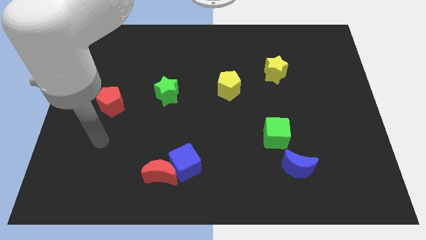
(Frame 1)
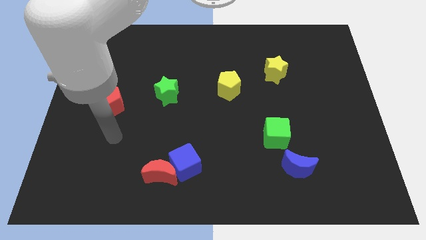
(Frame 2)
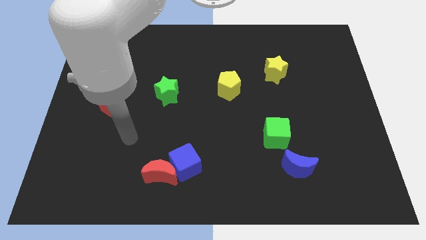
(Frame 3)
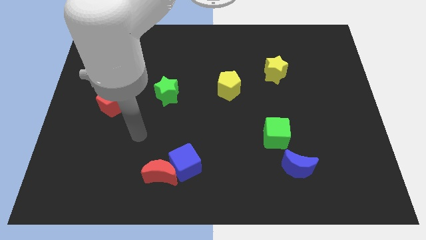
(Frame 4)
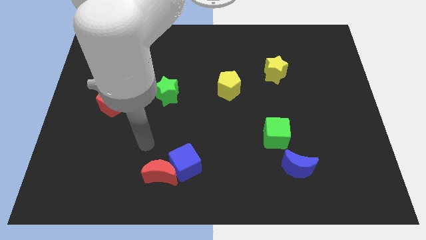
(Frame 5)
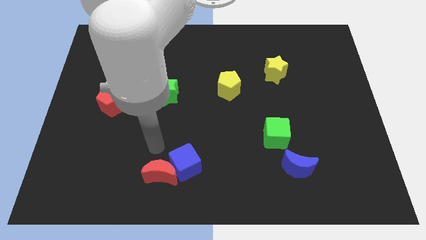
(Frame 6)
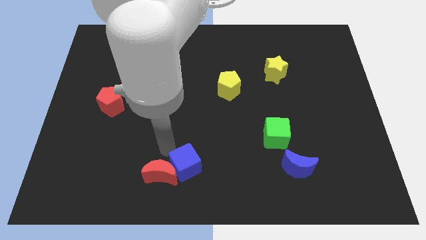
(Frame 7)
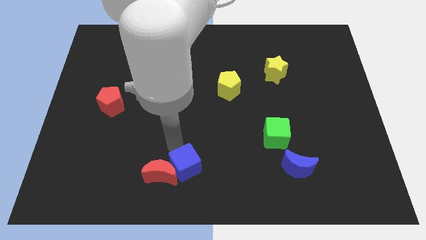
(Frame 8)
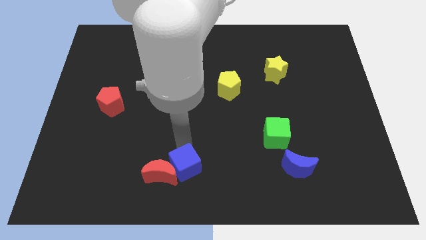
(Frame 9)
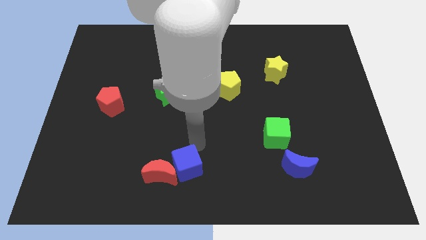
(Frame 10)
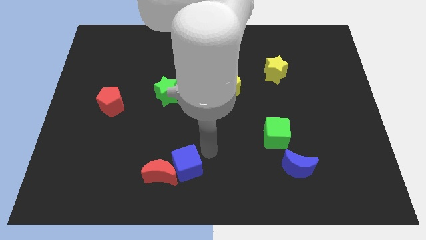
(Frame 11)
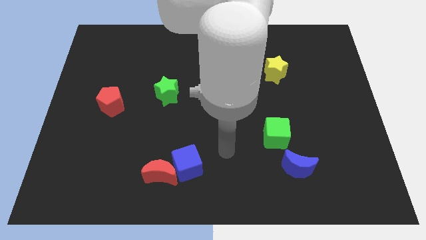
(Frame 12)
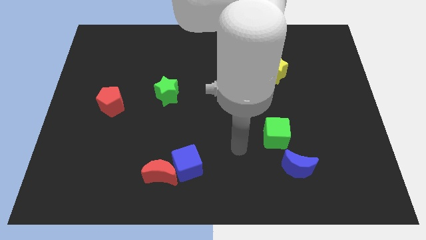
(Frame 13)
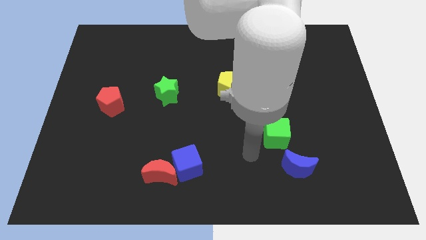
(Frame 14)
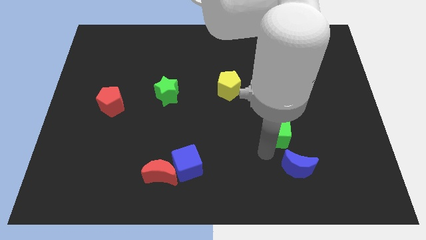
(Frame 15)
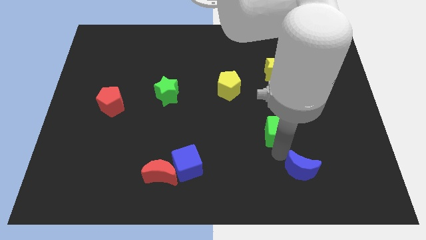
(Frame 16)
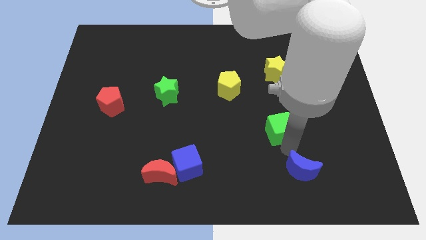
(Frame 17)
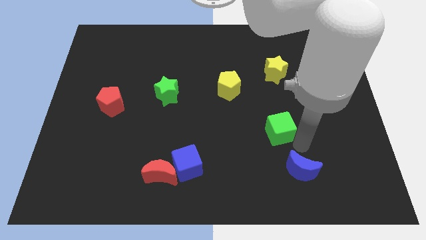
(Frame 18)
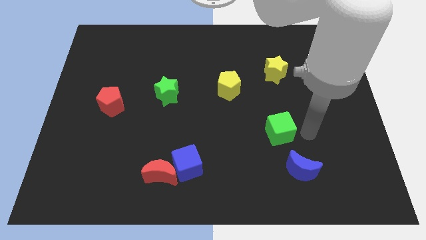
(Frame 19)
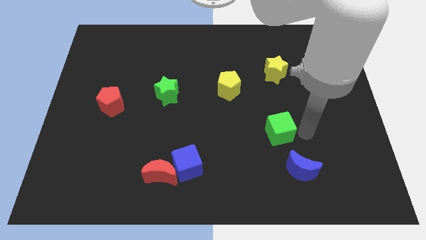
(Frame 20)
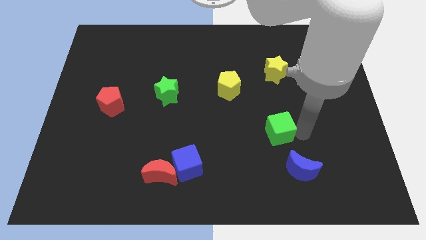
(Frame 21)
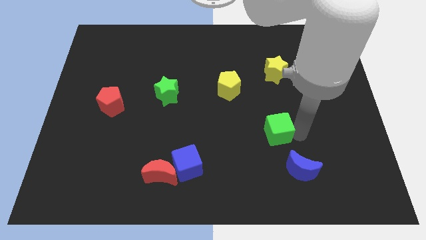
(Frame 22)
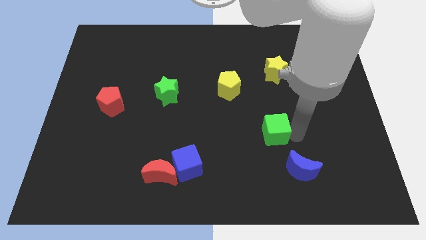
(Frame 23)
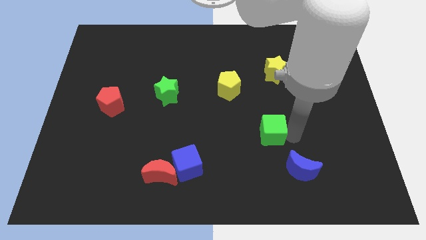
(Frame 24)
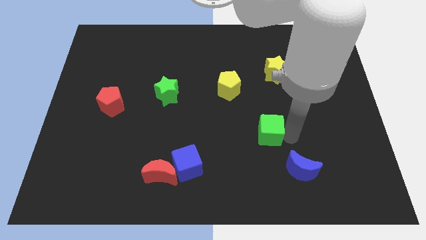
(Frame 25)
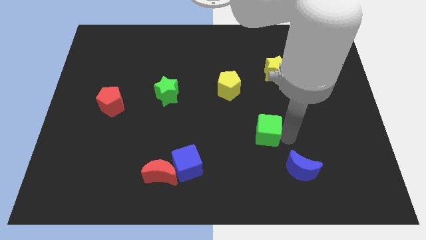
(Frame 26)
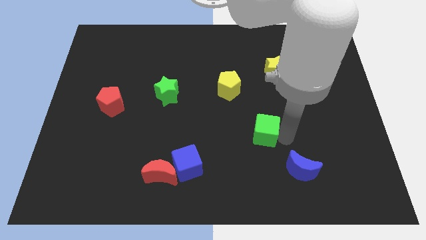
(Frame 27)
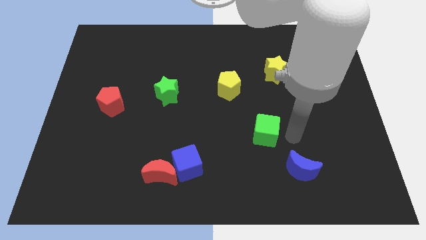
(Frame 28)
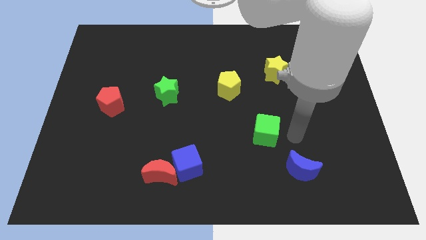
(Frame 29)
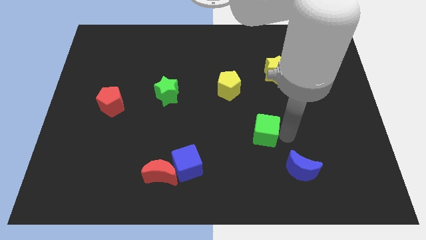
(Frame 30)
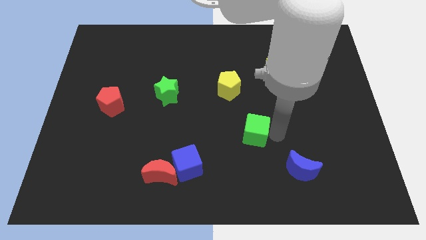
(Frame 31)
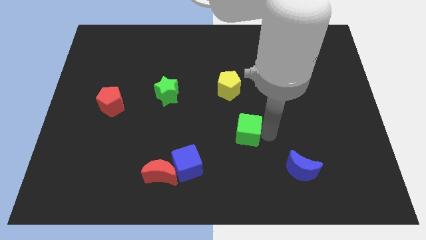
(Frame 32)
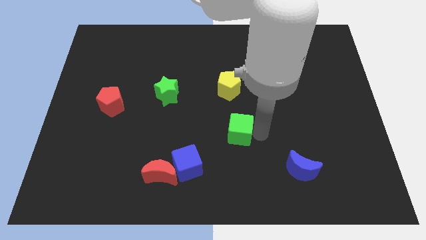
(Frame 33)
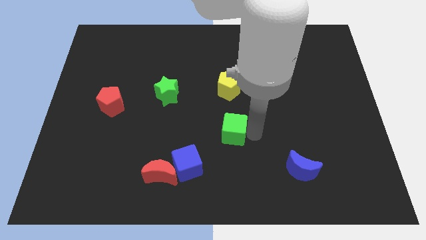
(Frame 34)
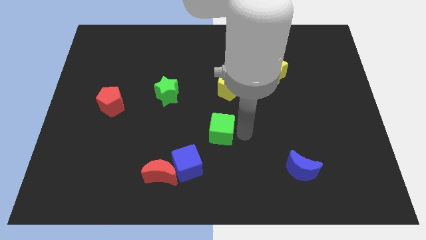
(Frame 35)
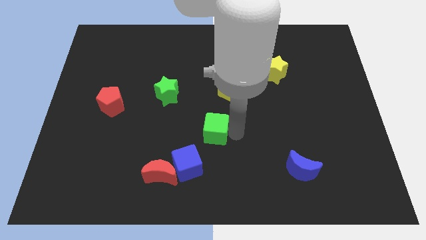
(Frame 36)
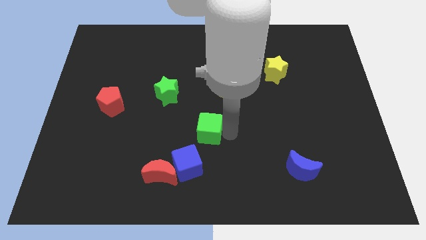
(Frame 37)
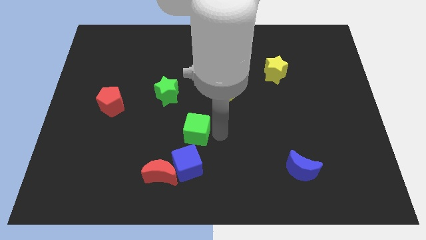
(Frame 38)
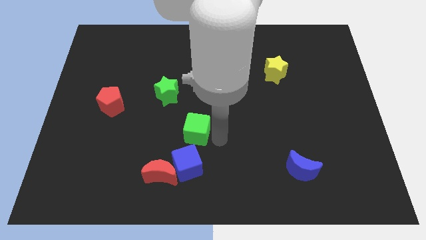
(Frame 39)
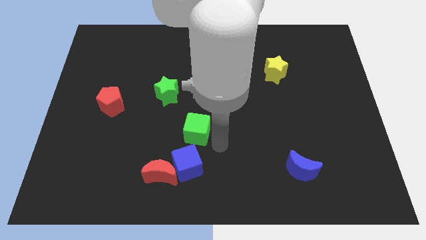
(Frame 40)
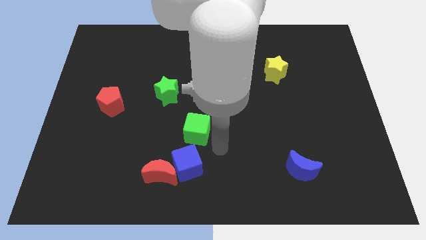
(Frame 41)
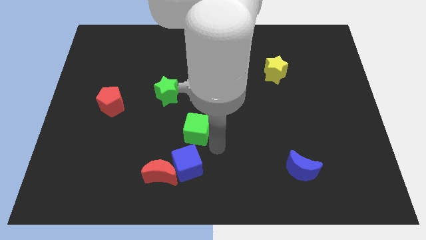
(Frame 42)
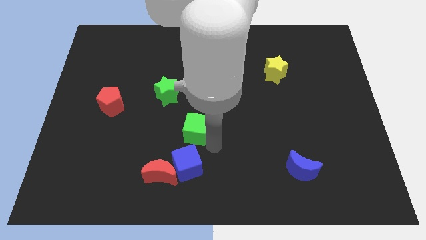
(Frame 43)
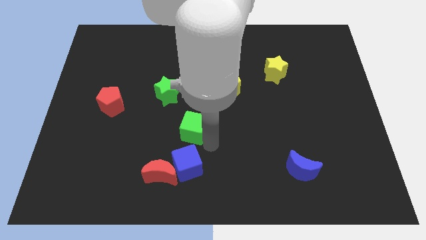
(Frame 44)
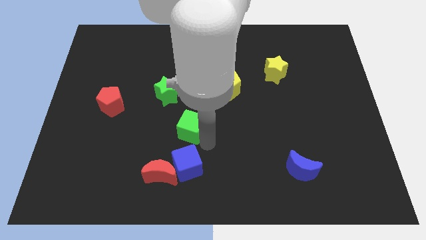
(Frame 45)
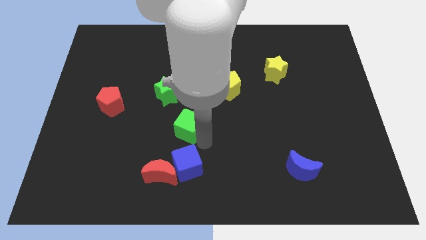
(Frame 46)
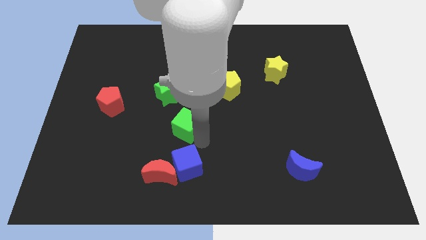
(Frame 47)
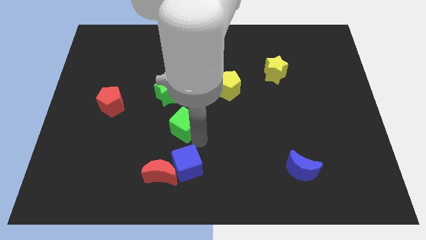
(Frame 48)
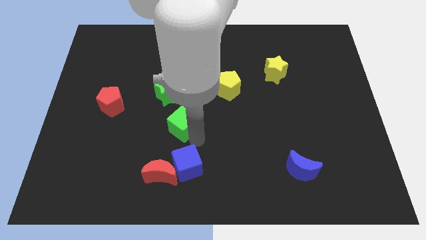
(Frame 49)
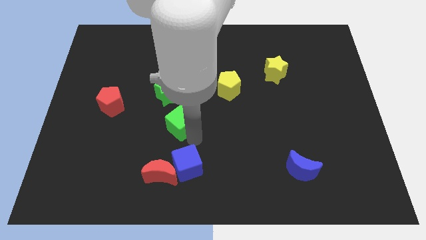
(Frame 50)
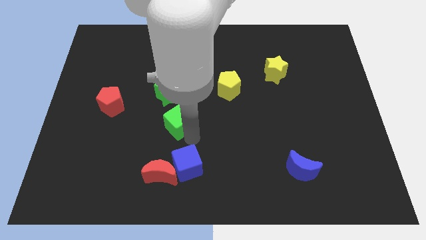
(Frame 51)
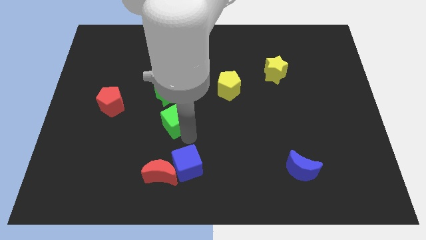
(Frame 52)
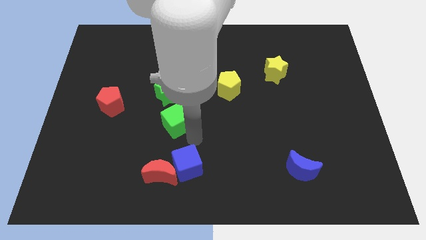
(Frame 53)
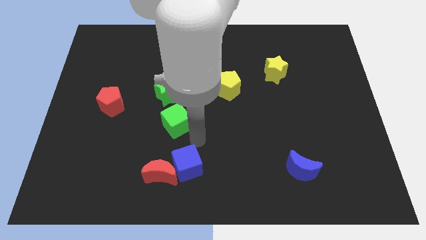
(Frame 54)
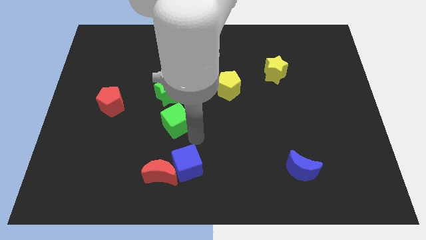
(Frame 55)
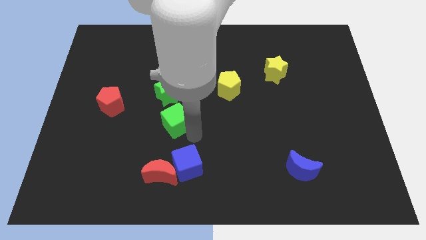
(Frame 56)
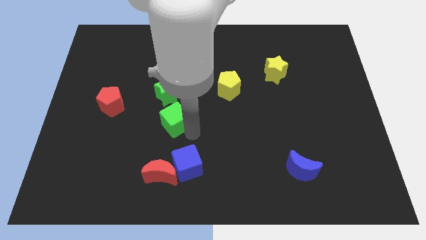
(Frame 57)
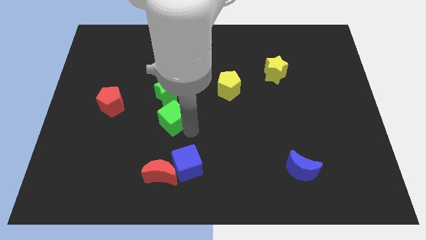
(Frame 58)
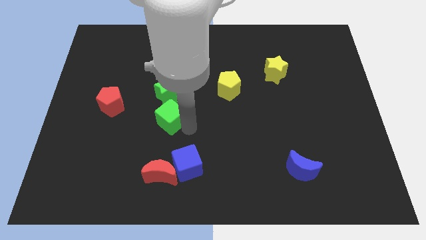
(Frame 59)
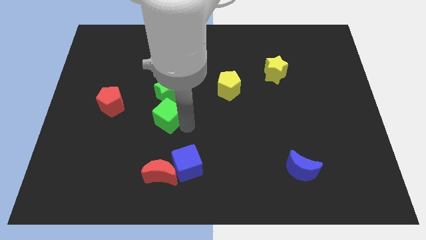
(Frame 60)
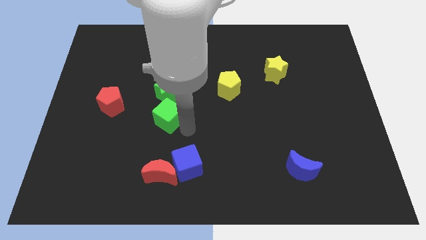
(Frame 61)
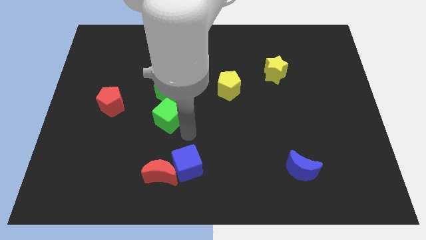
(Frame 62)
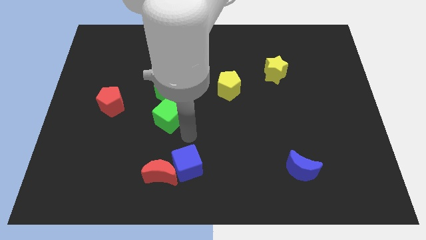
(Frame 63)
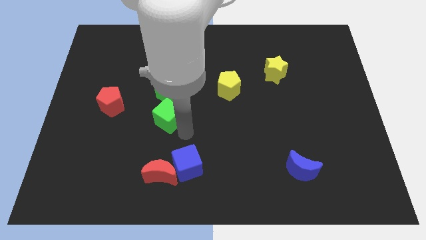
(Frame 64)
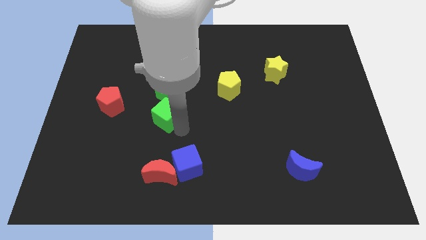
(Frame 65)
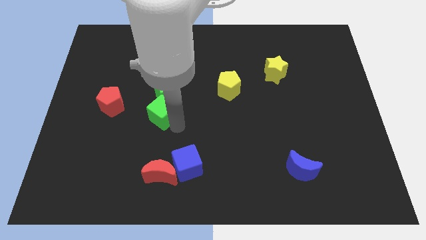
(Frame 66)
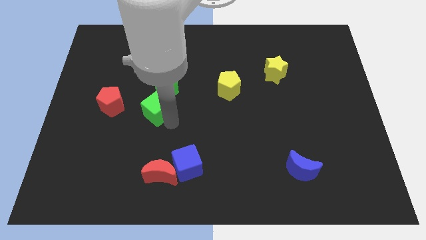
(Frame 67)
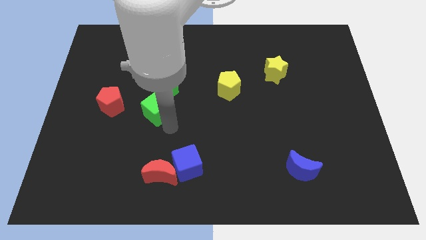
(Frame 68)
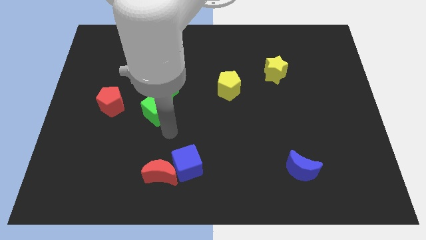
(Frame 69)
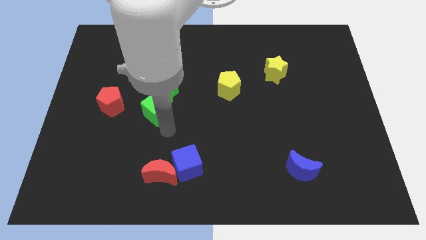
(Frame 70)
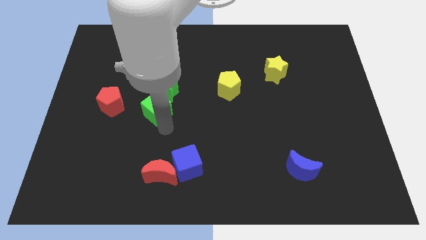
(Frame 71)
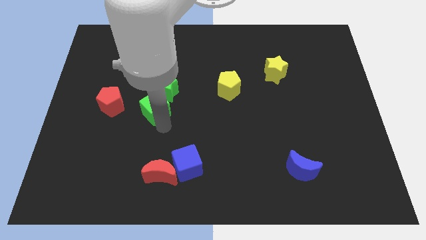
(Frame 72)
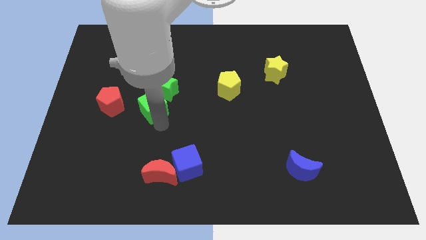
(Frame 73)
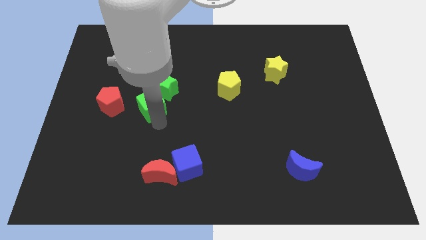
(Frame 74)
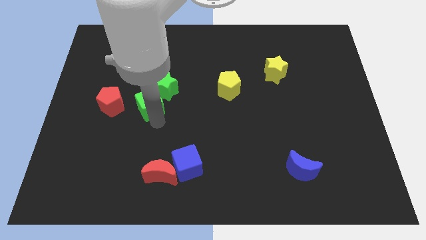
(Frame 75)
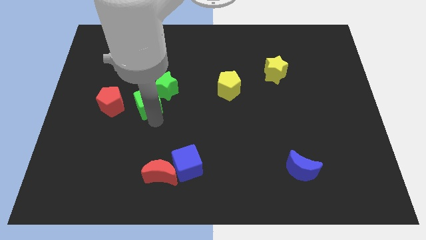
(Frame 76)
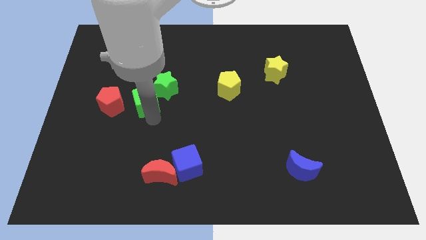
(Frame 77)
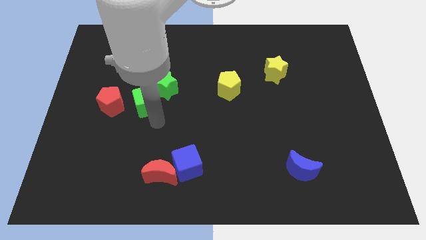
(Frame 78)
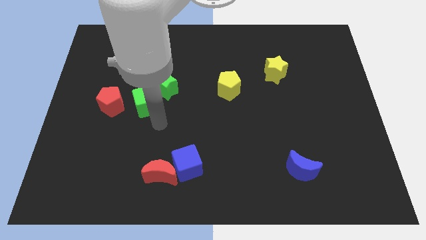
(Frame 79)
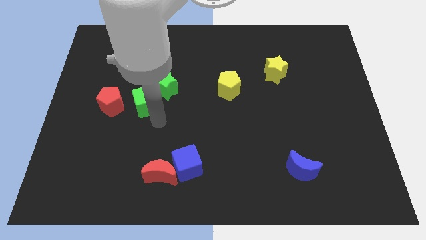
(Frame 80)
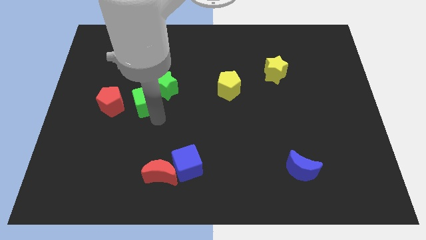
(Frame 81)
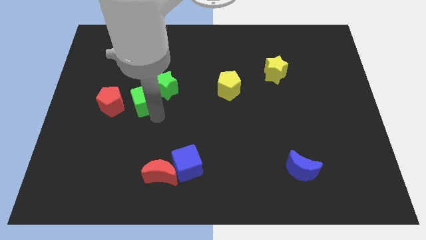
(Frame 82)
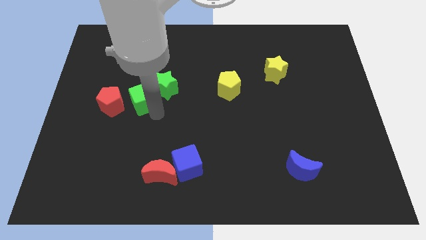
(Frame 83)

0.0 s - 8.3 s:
push the green cube to the top right side of the red pentagon

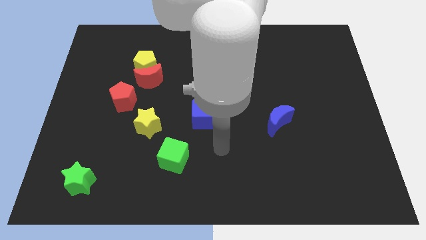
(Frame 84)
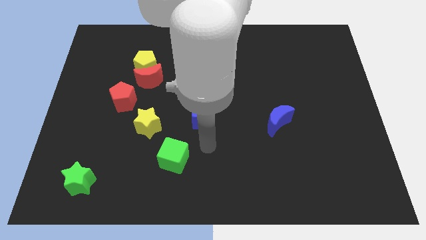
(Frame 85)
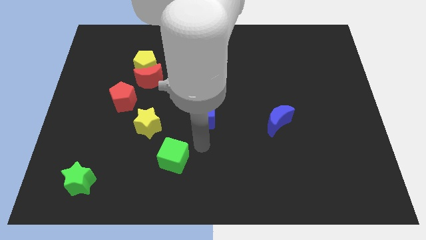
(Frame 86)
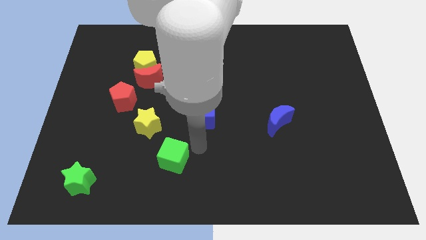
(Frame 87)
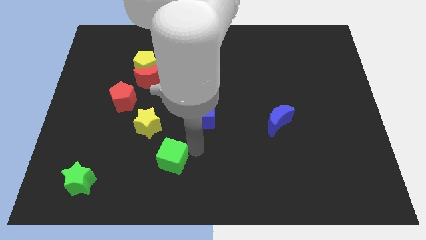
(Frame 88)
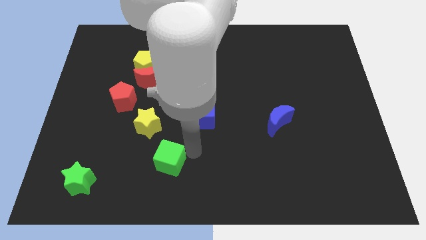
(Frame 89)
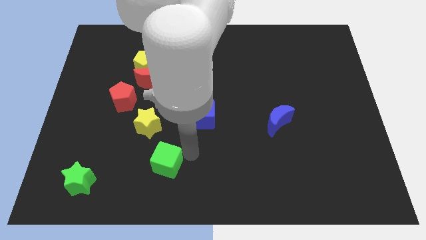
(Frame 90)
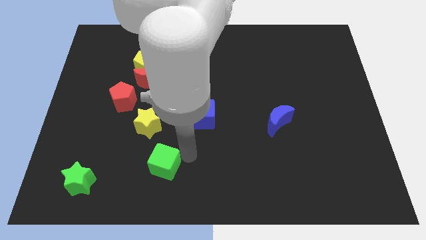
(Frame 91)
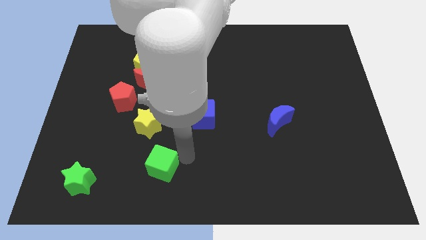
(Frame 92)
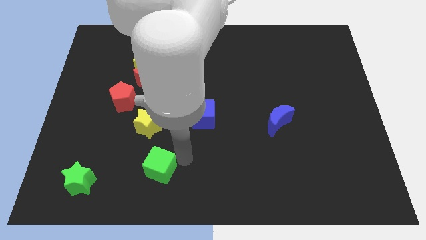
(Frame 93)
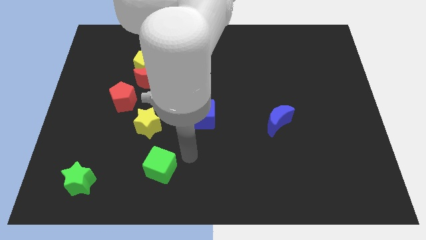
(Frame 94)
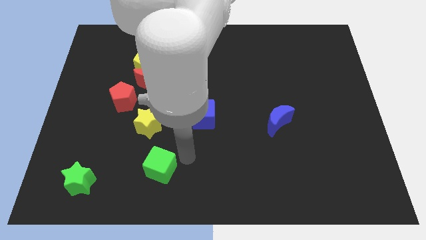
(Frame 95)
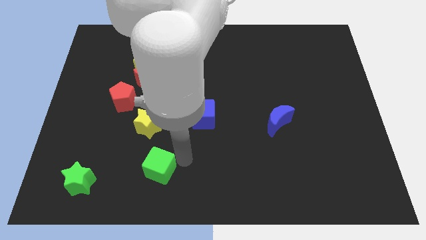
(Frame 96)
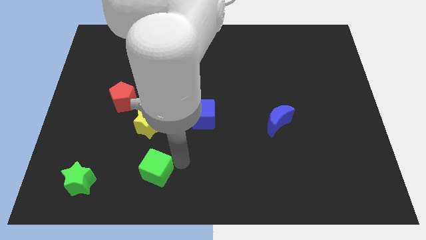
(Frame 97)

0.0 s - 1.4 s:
put the green cube right of the green star
